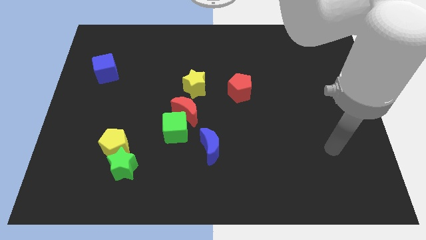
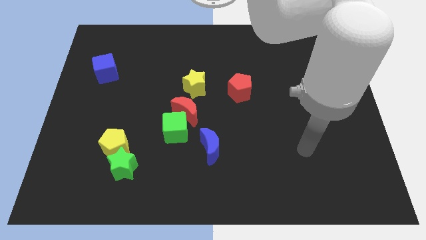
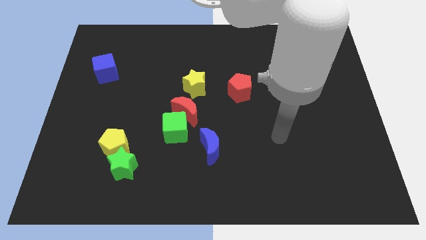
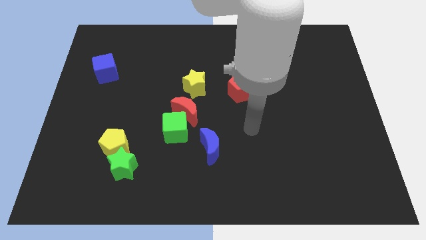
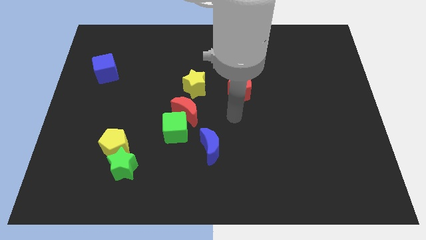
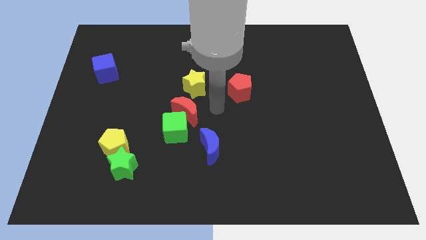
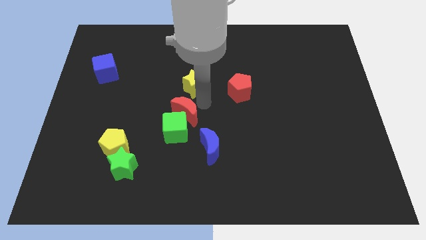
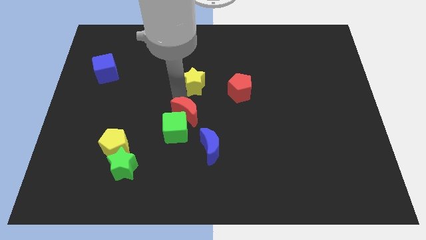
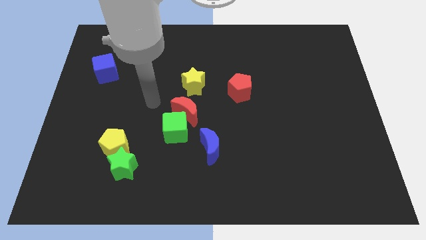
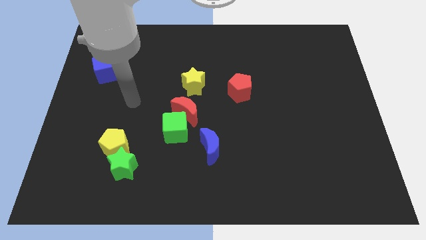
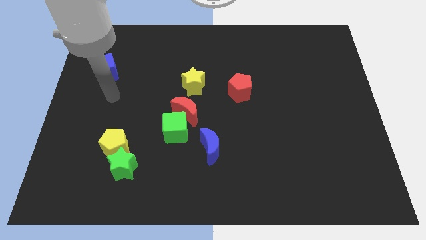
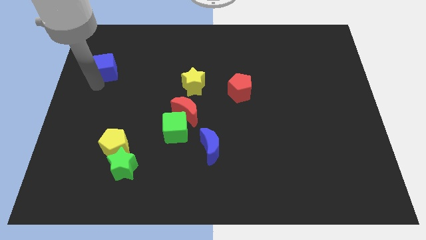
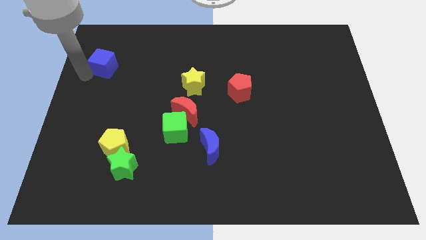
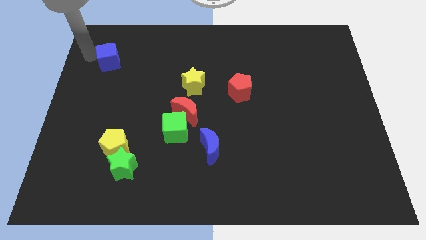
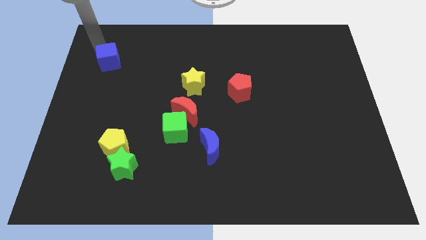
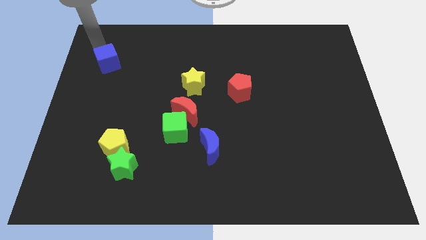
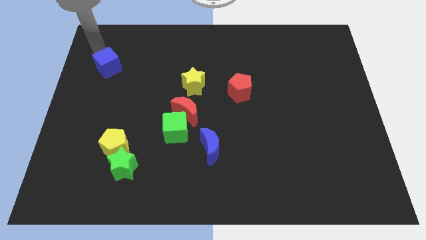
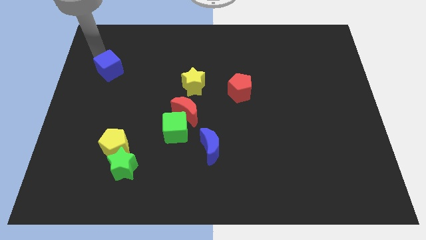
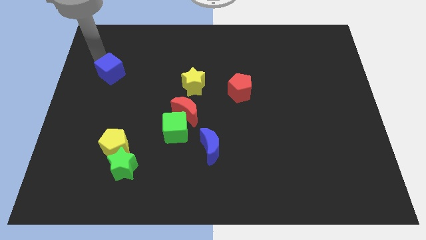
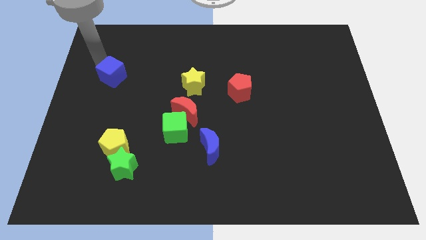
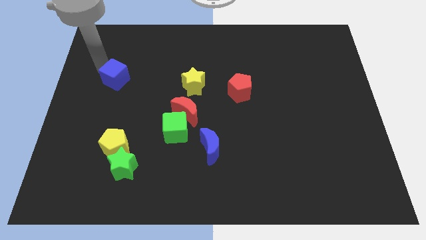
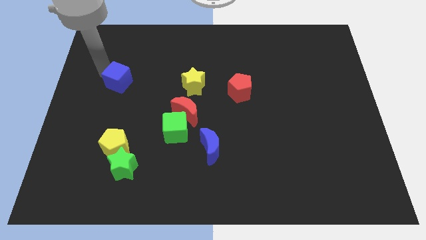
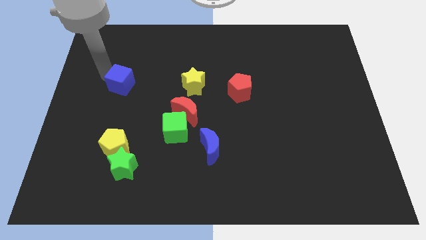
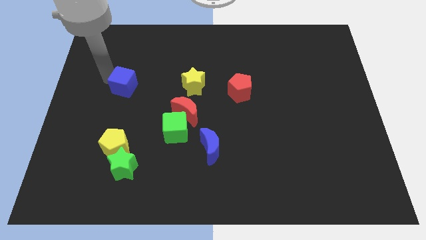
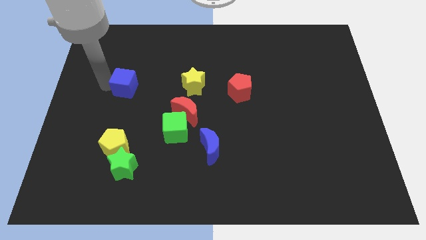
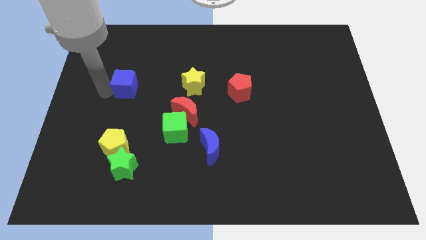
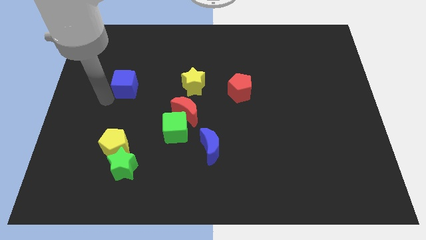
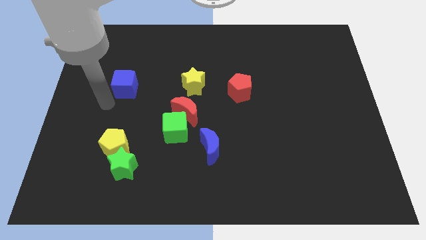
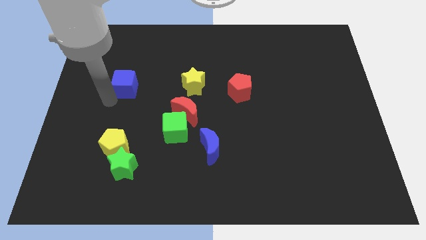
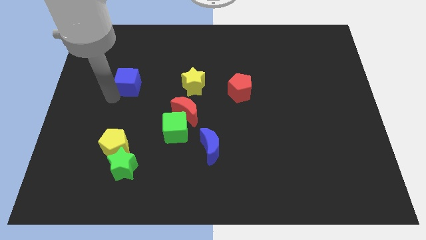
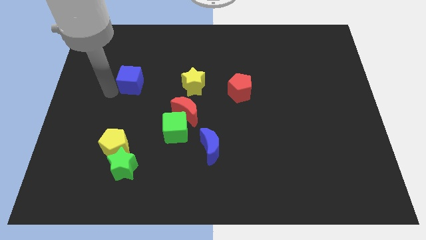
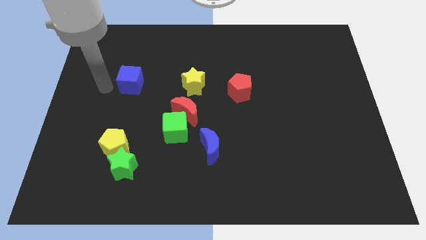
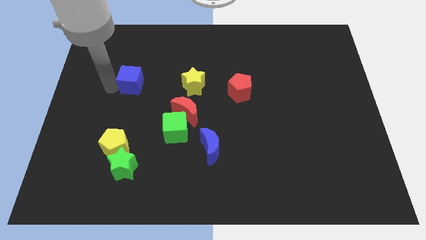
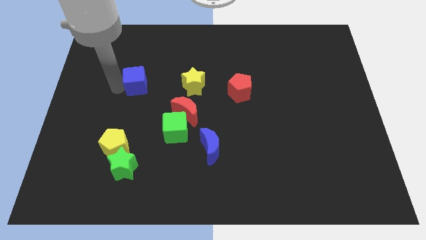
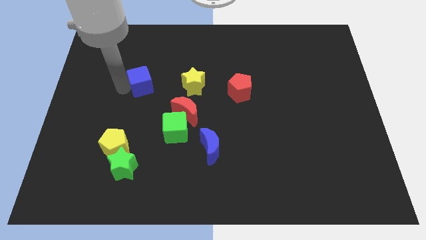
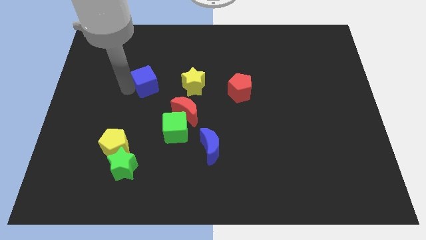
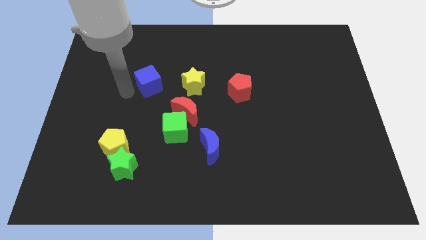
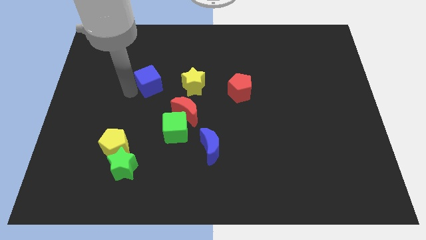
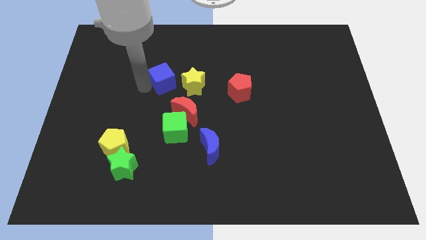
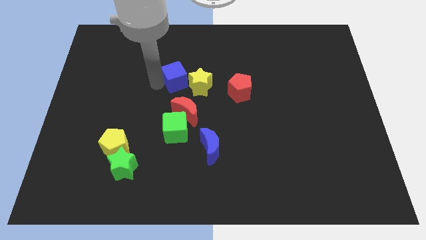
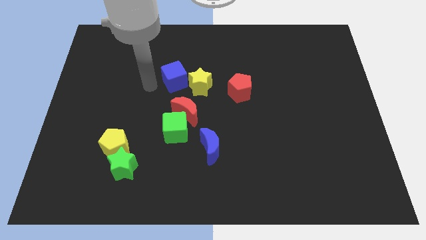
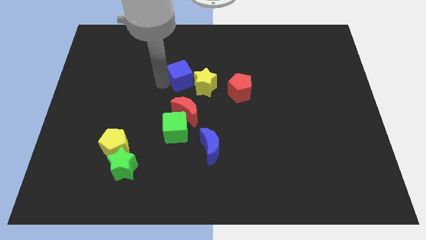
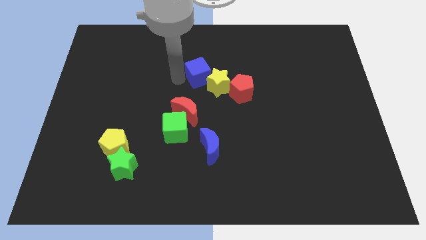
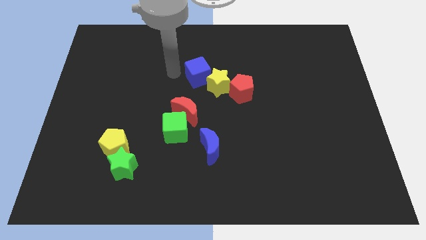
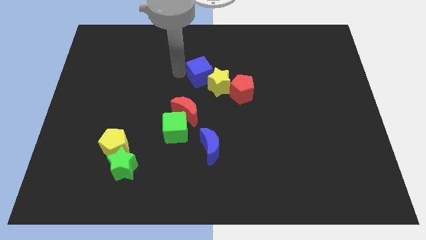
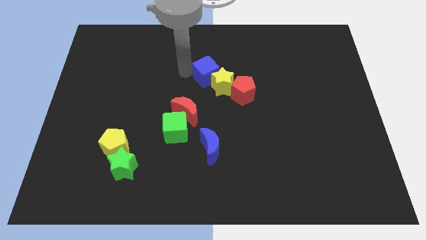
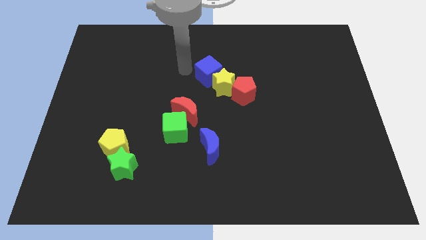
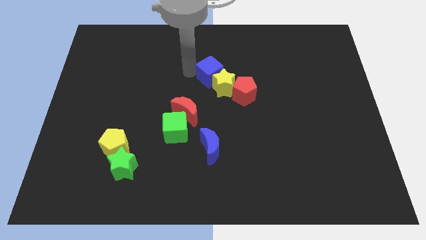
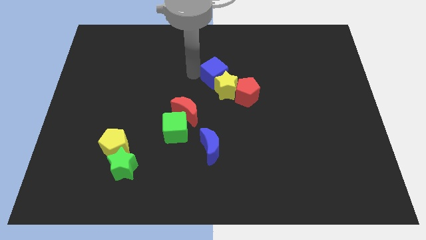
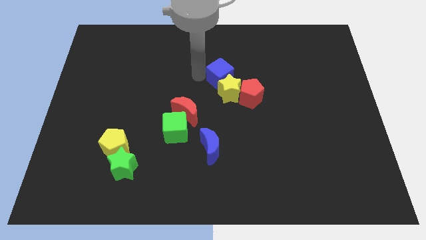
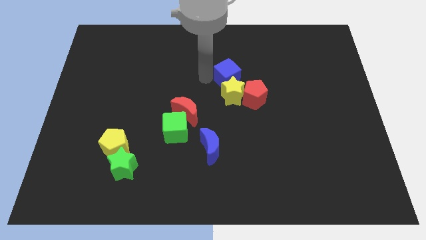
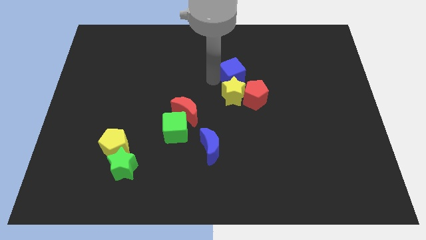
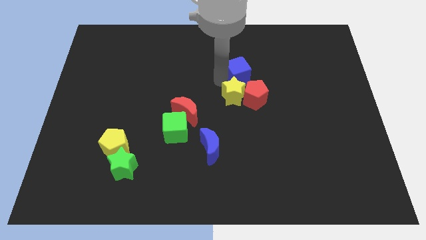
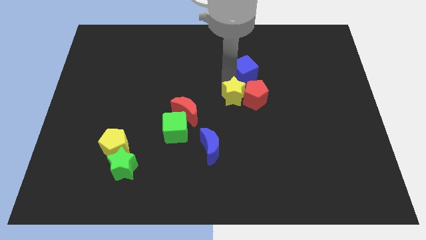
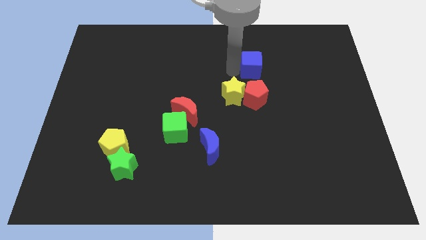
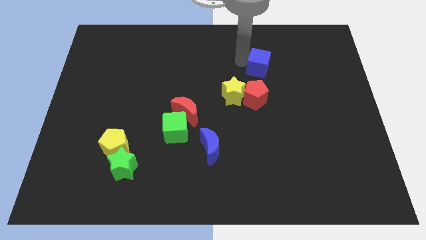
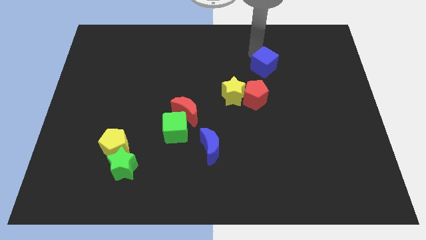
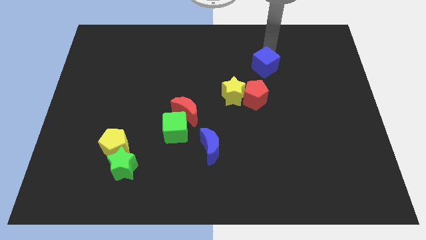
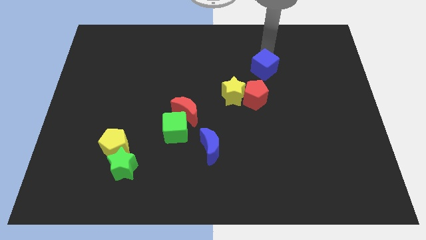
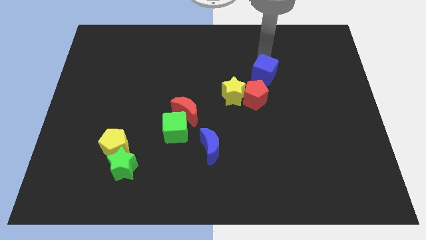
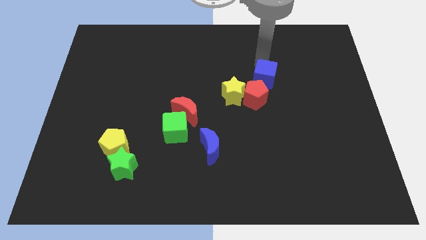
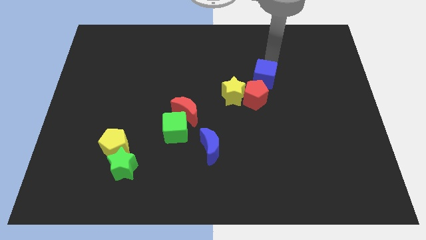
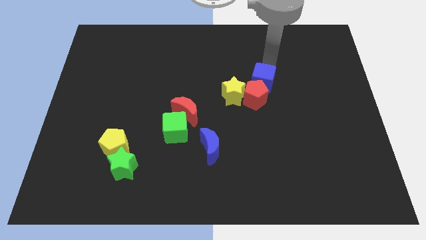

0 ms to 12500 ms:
move the blue cube close to the red pentagon

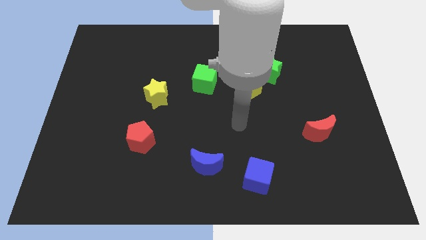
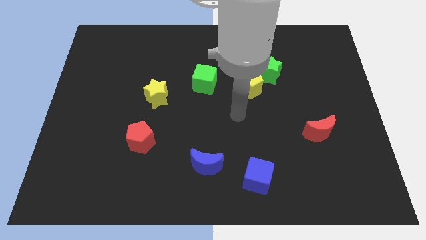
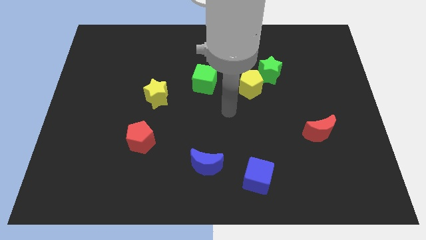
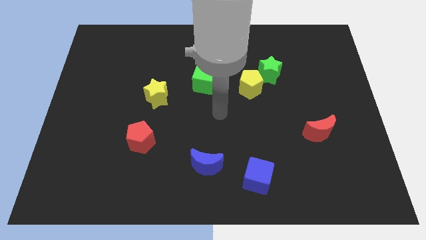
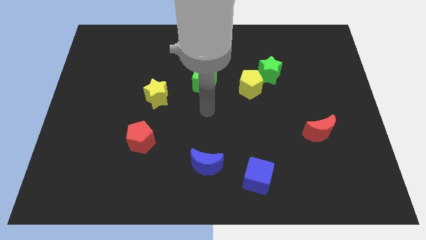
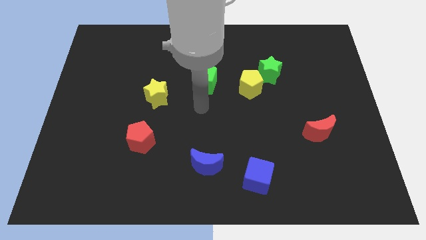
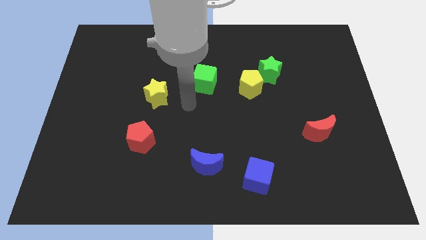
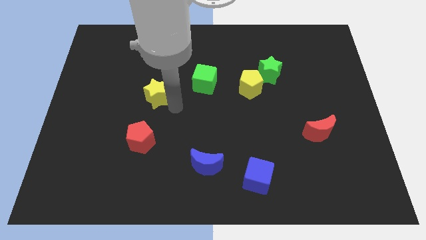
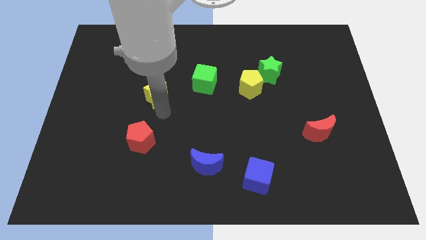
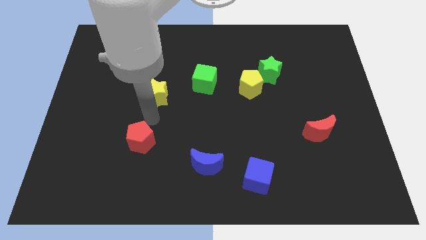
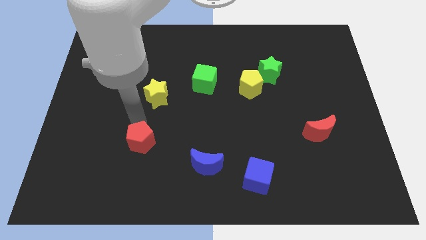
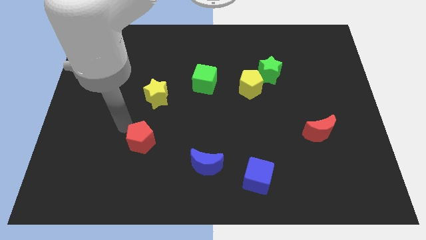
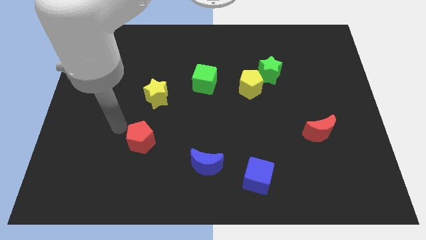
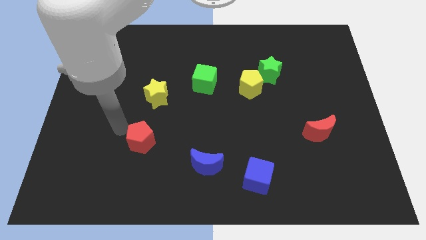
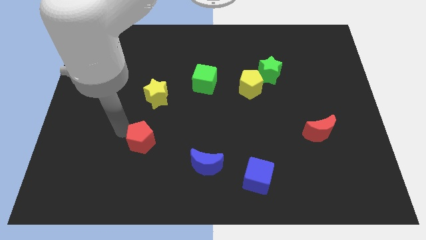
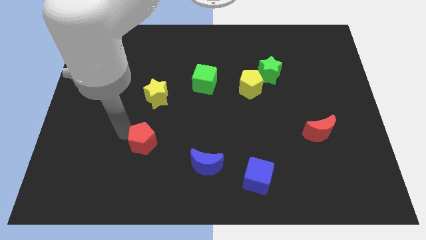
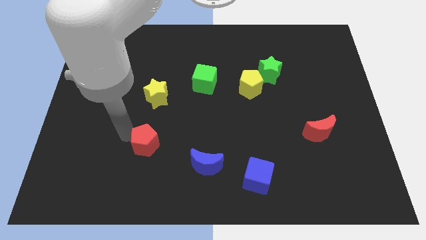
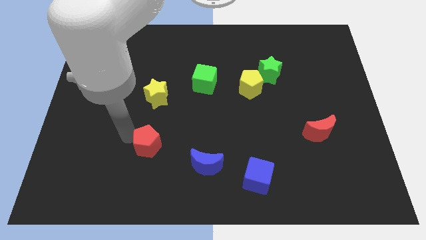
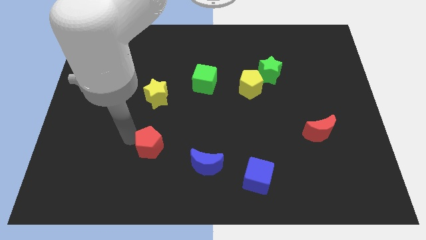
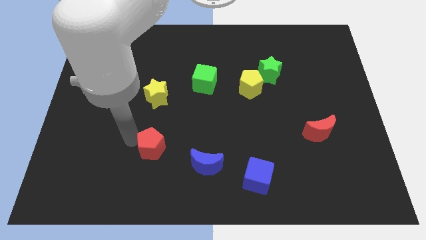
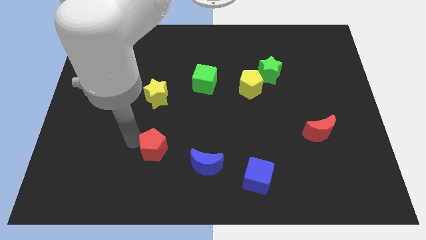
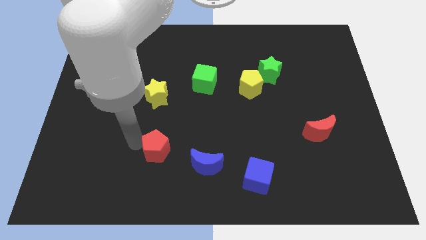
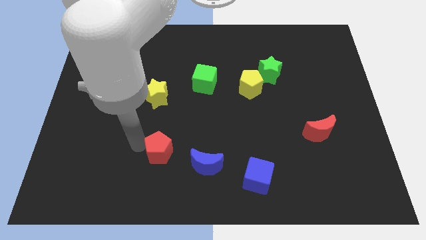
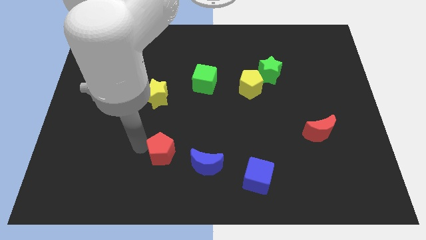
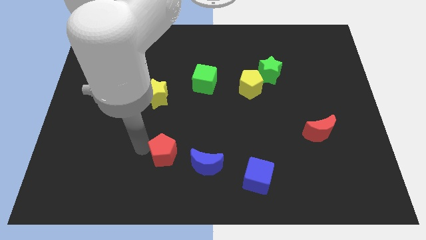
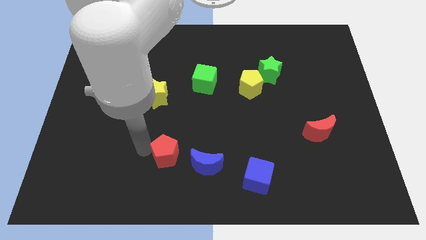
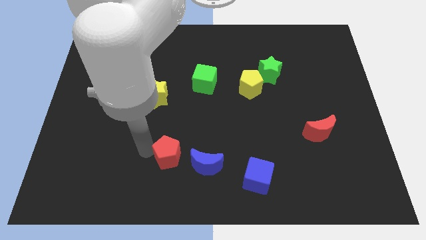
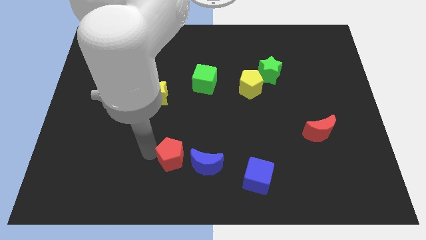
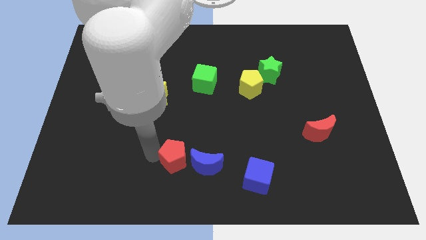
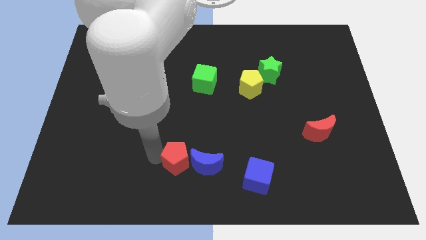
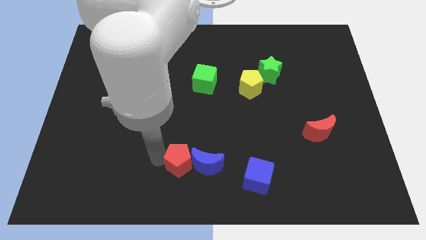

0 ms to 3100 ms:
put the red pentagon towards the blue moon
